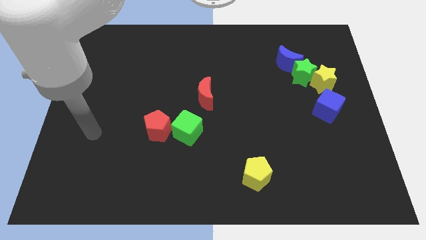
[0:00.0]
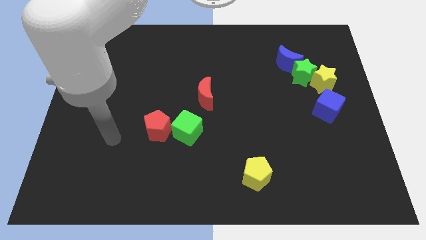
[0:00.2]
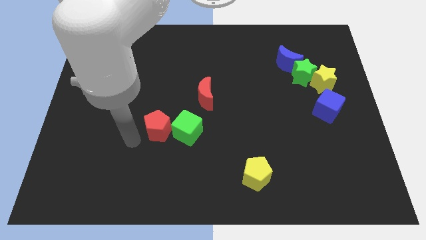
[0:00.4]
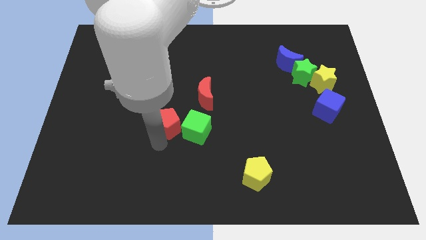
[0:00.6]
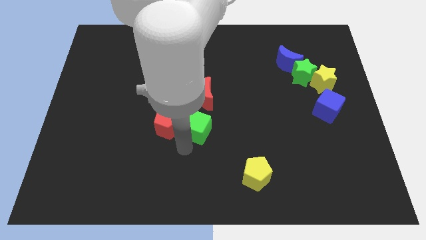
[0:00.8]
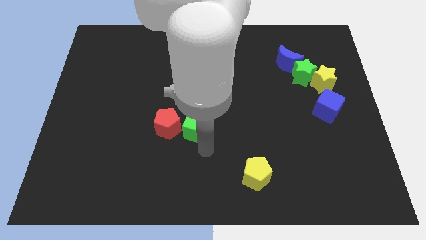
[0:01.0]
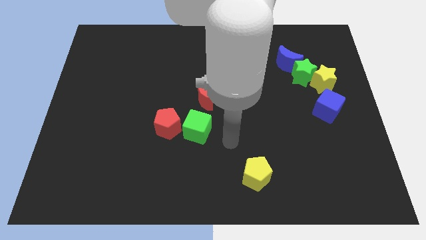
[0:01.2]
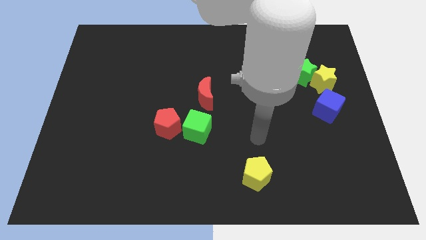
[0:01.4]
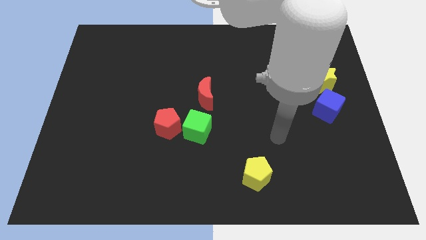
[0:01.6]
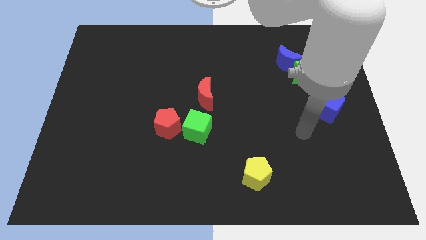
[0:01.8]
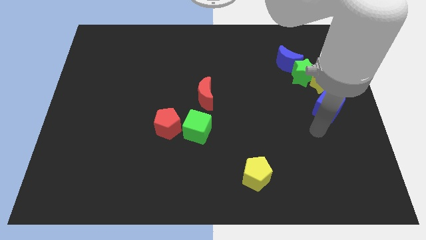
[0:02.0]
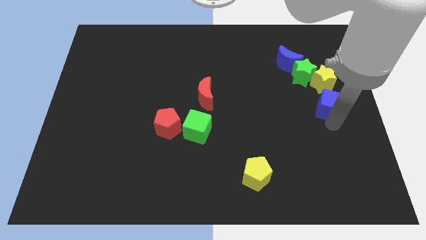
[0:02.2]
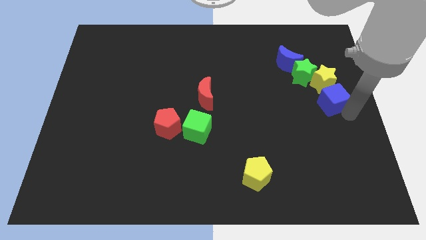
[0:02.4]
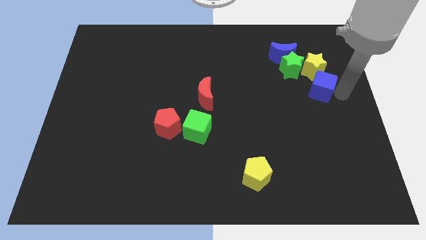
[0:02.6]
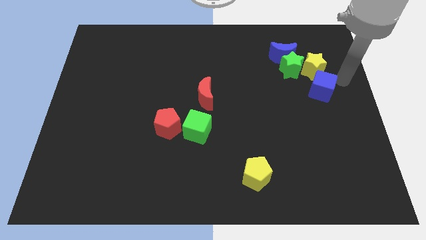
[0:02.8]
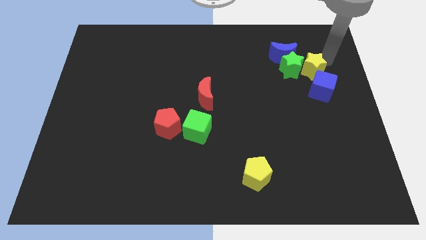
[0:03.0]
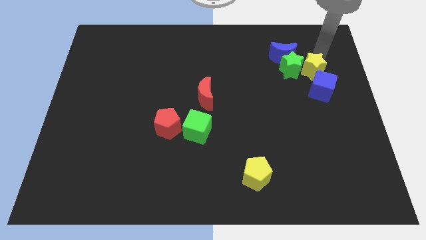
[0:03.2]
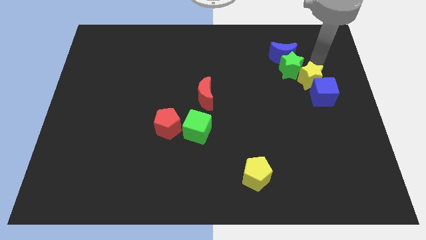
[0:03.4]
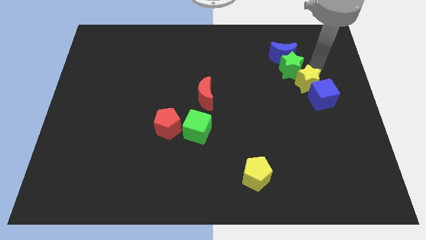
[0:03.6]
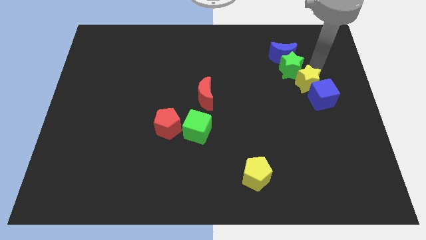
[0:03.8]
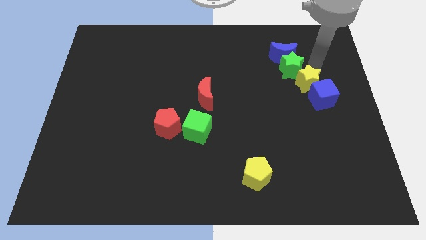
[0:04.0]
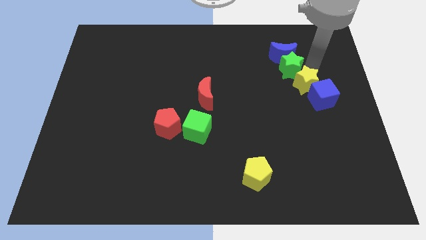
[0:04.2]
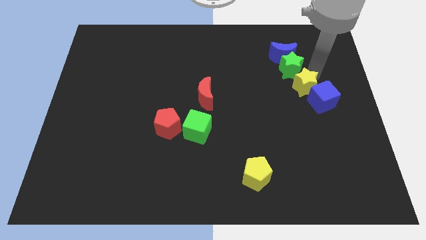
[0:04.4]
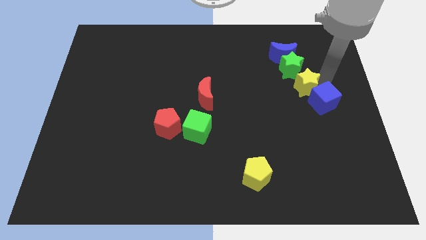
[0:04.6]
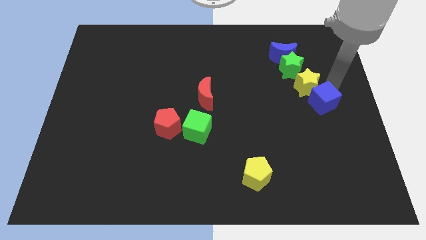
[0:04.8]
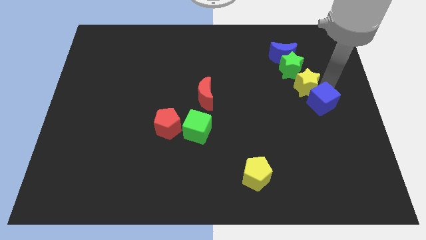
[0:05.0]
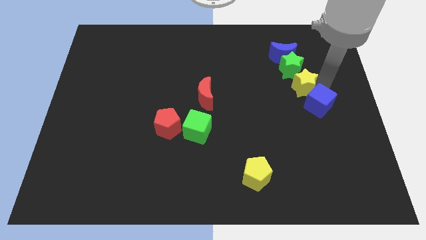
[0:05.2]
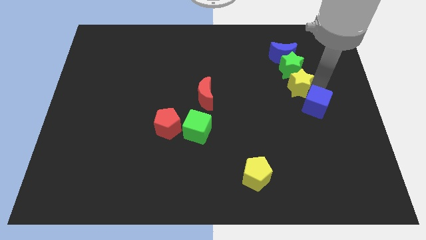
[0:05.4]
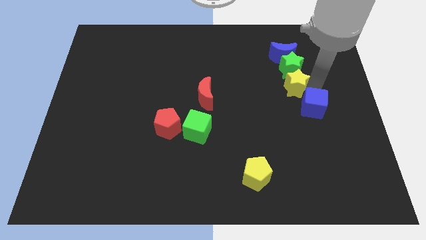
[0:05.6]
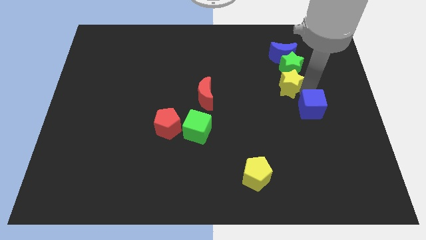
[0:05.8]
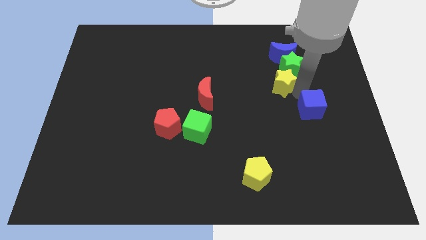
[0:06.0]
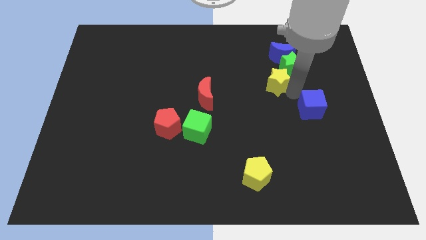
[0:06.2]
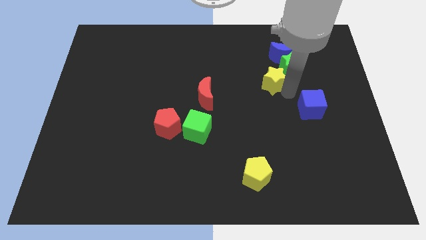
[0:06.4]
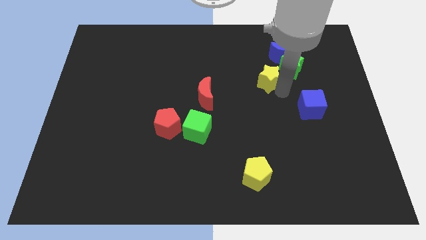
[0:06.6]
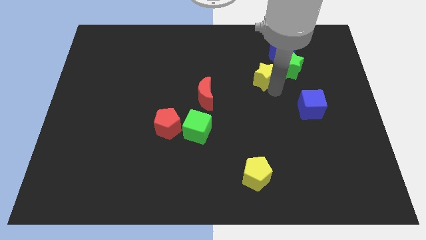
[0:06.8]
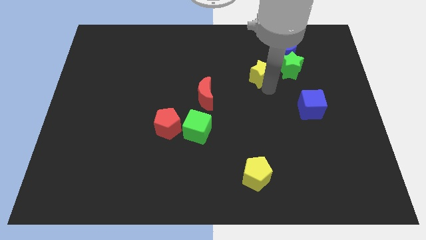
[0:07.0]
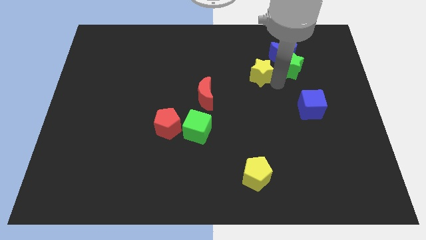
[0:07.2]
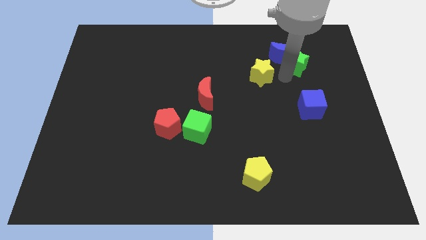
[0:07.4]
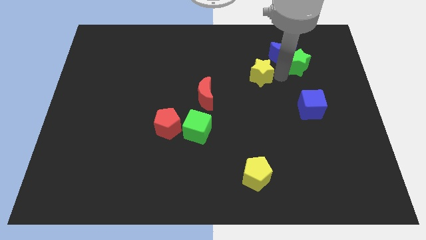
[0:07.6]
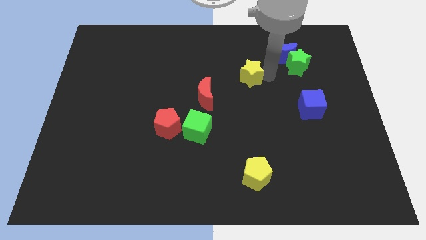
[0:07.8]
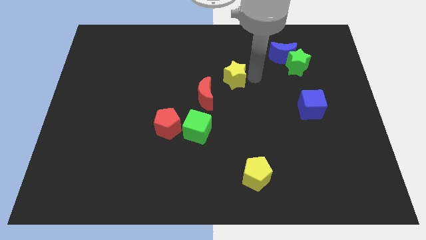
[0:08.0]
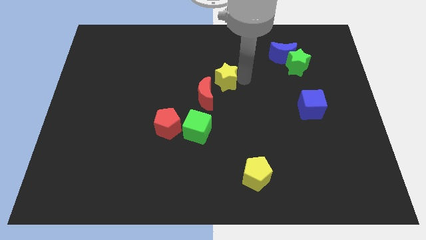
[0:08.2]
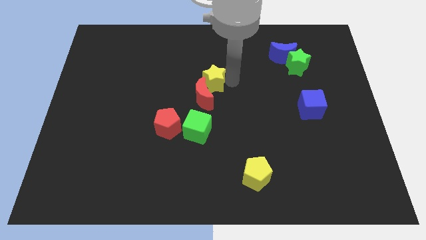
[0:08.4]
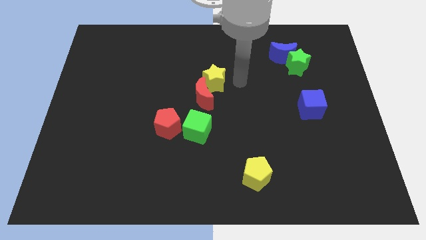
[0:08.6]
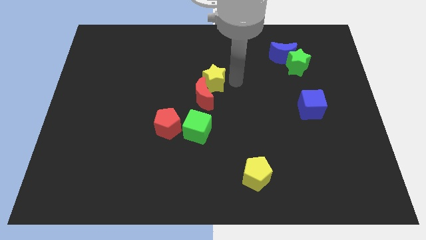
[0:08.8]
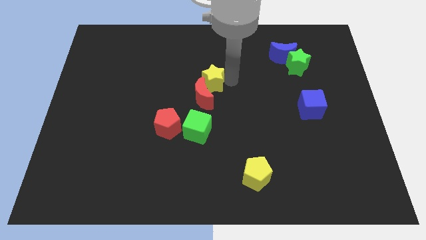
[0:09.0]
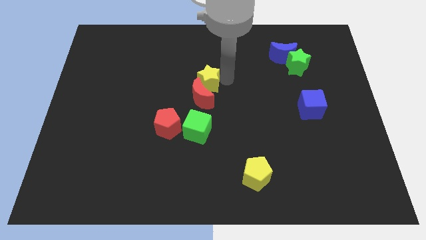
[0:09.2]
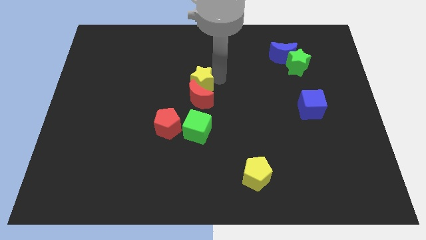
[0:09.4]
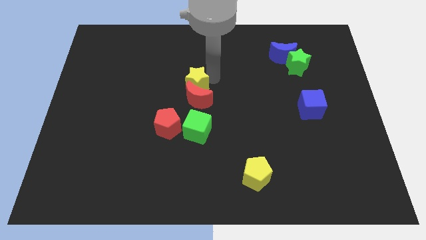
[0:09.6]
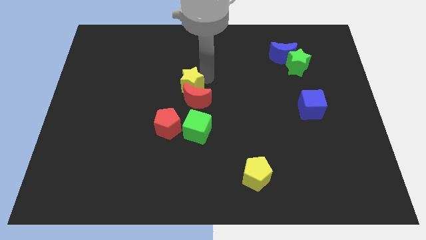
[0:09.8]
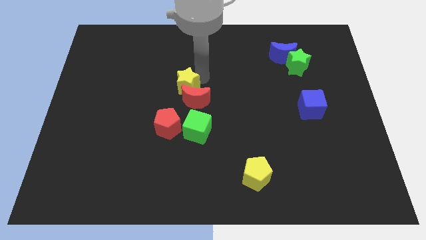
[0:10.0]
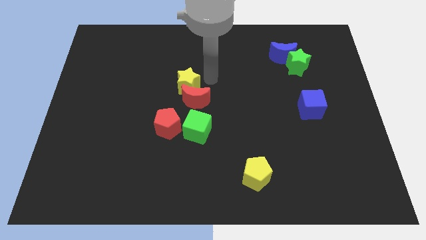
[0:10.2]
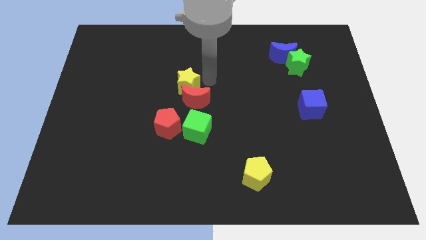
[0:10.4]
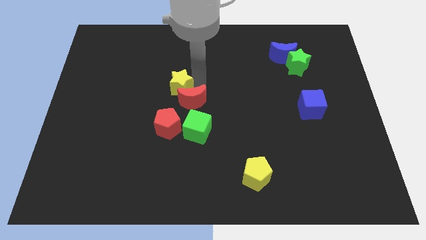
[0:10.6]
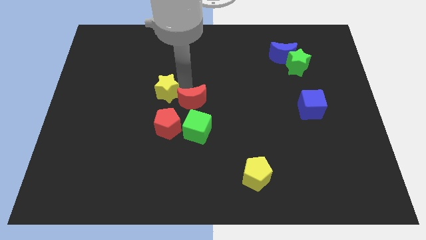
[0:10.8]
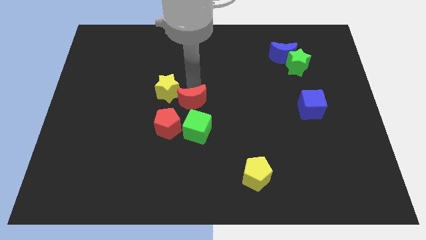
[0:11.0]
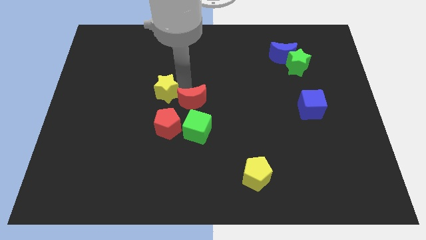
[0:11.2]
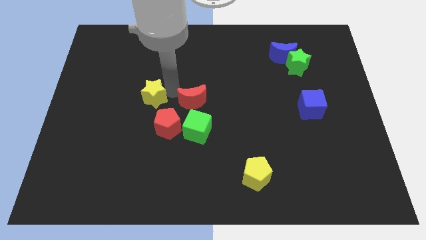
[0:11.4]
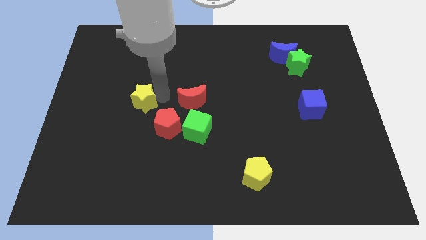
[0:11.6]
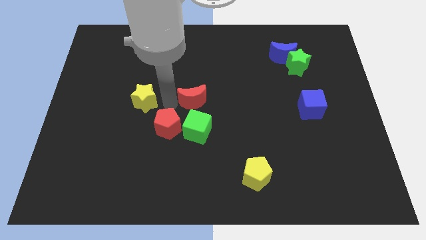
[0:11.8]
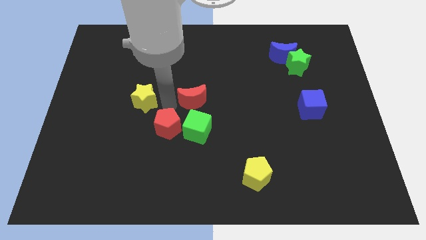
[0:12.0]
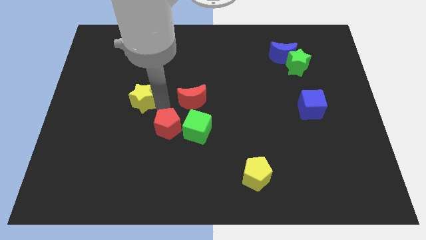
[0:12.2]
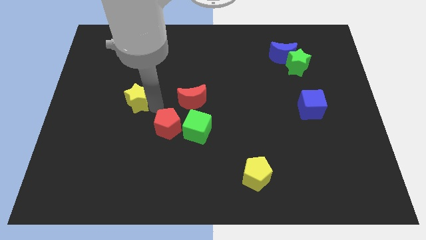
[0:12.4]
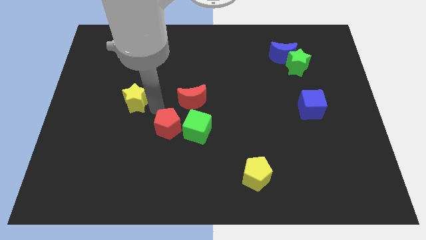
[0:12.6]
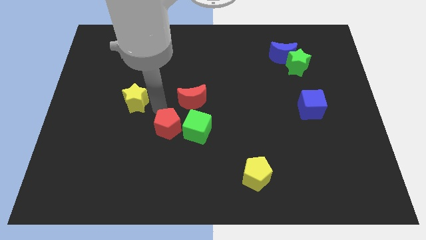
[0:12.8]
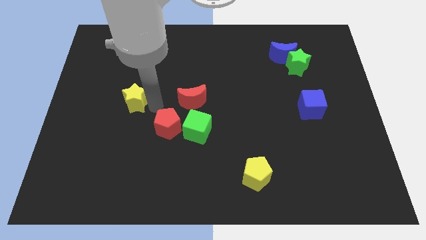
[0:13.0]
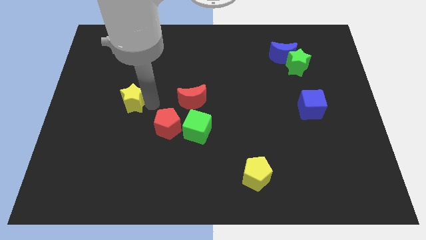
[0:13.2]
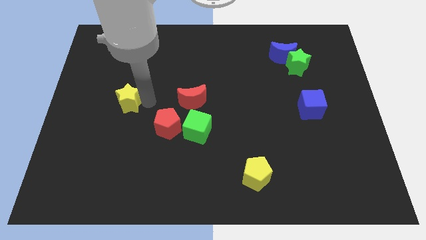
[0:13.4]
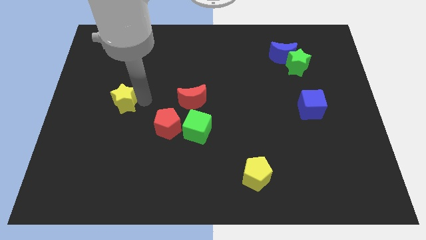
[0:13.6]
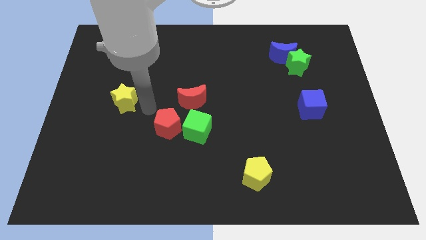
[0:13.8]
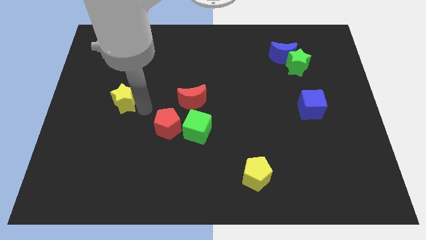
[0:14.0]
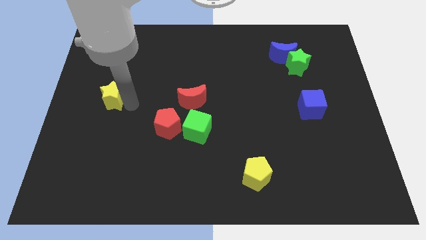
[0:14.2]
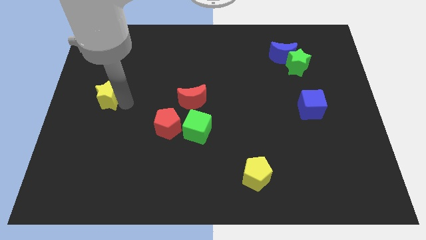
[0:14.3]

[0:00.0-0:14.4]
push the yellow star to the left side of the board
